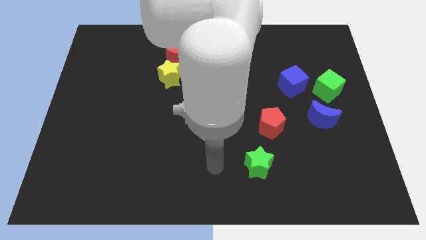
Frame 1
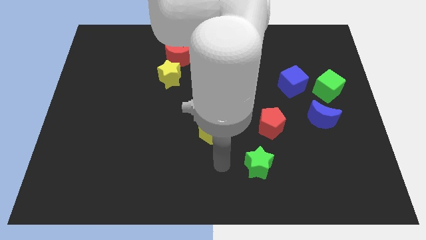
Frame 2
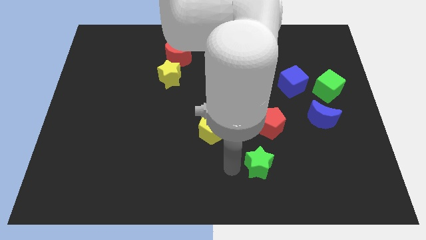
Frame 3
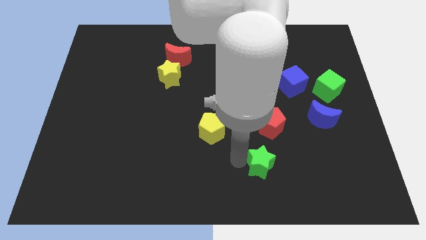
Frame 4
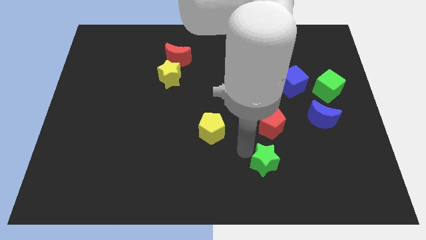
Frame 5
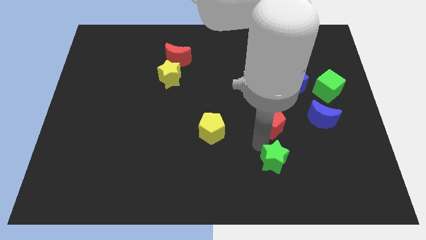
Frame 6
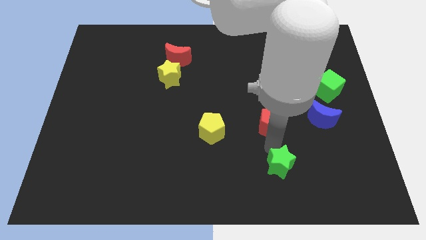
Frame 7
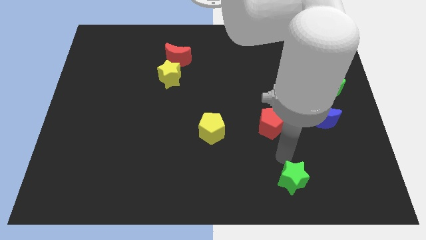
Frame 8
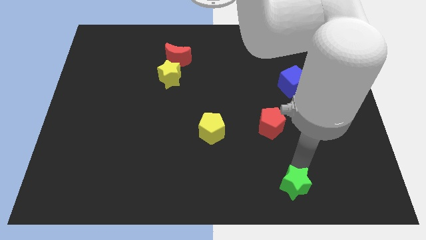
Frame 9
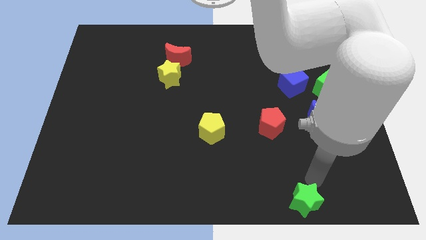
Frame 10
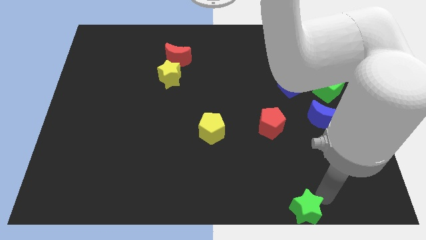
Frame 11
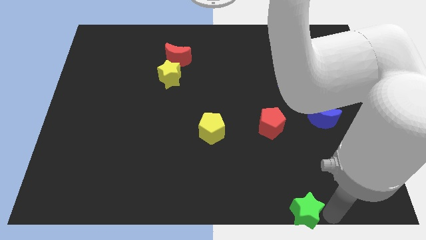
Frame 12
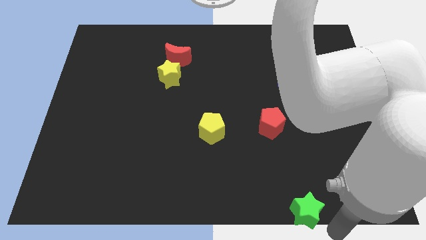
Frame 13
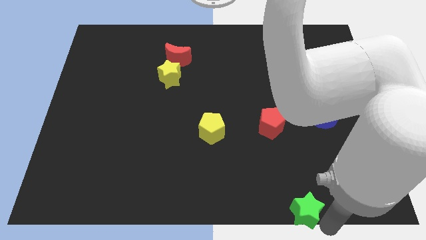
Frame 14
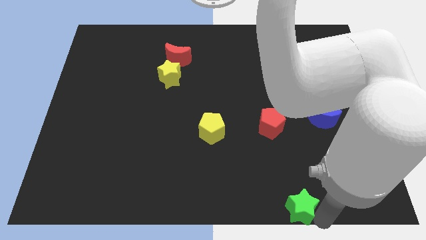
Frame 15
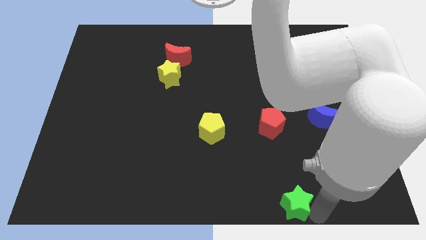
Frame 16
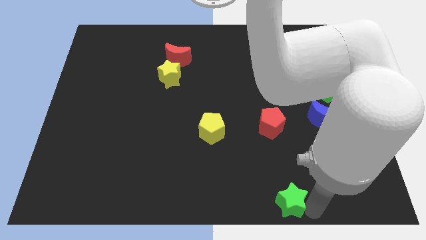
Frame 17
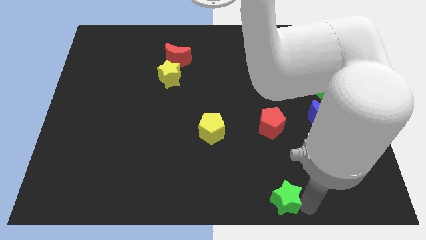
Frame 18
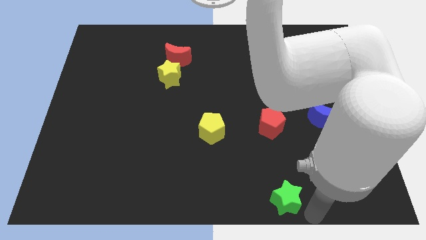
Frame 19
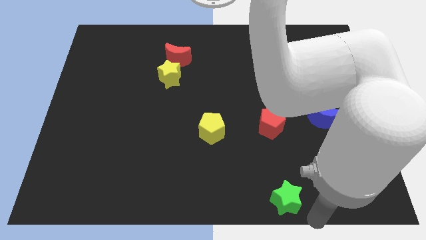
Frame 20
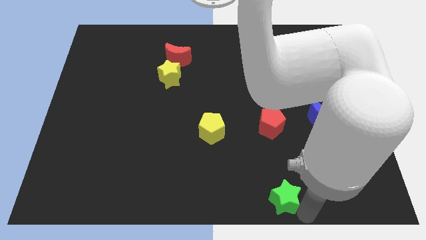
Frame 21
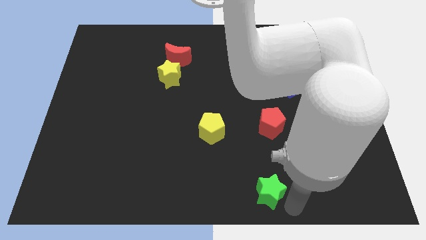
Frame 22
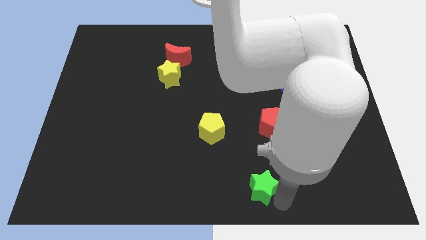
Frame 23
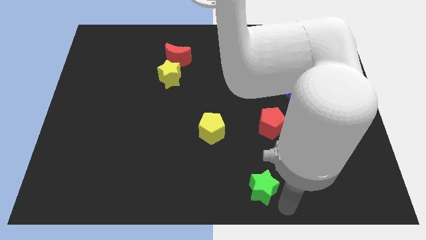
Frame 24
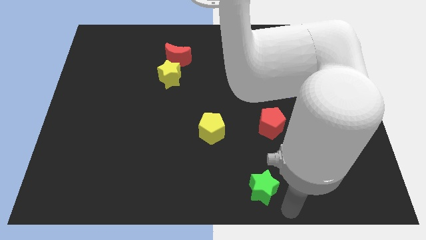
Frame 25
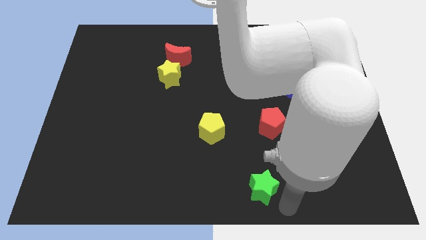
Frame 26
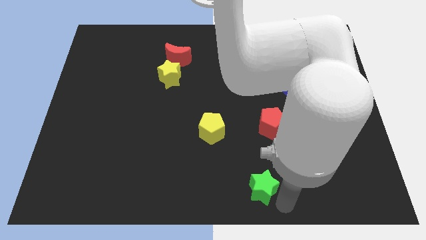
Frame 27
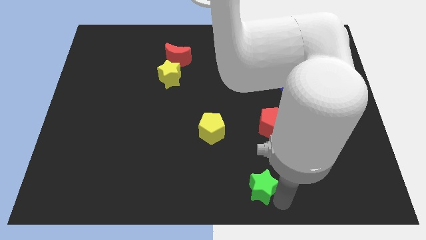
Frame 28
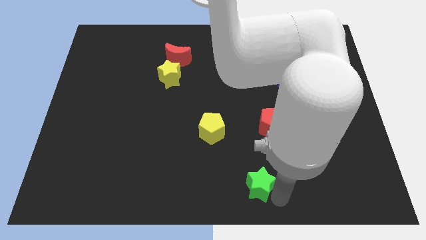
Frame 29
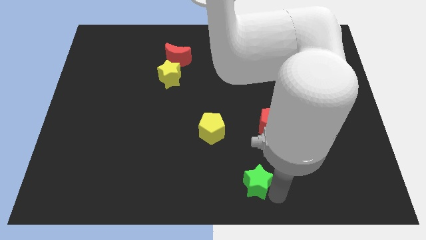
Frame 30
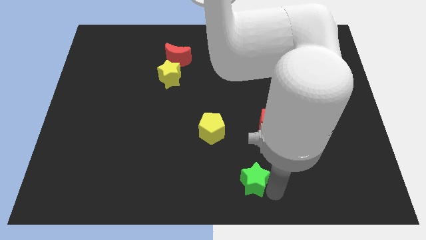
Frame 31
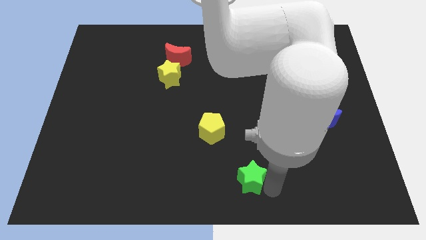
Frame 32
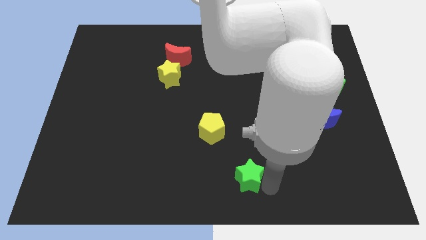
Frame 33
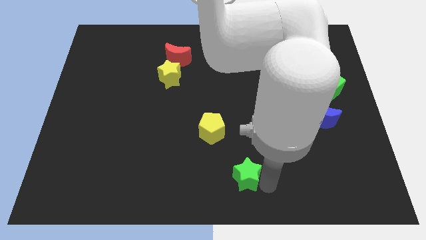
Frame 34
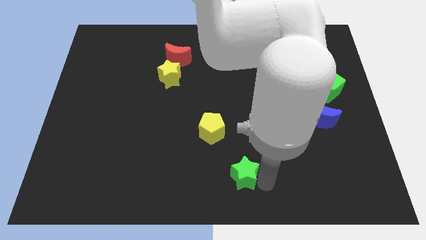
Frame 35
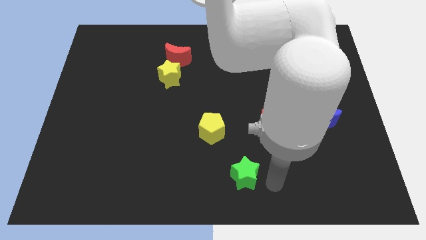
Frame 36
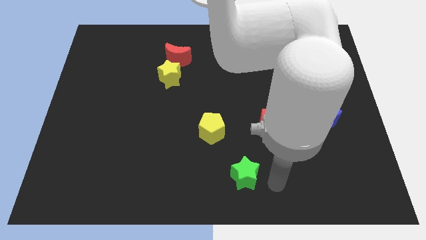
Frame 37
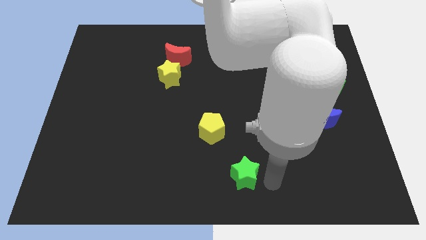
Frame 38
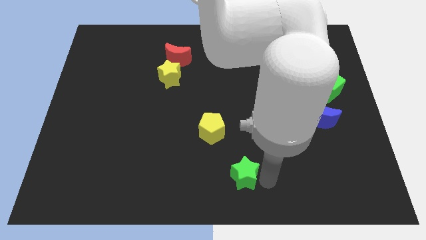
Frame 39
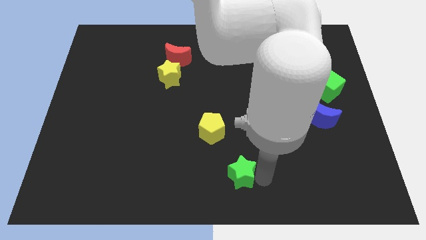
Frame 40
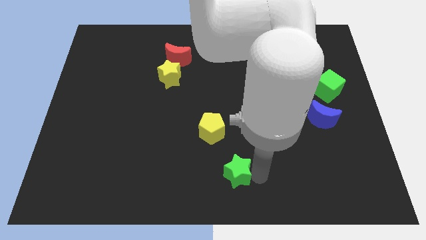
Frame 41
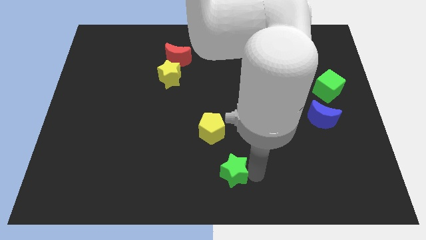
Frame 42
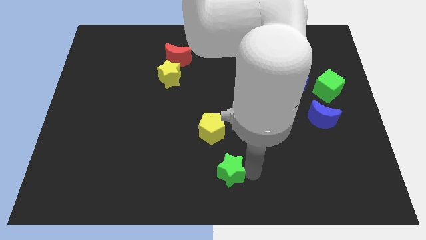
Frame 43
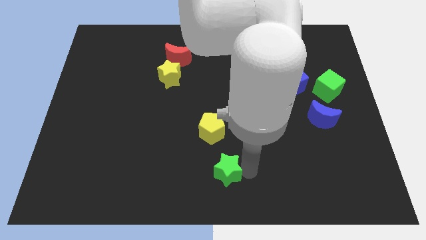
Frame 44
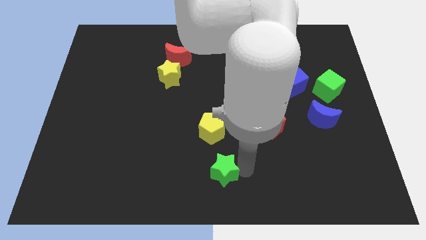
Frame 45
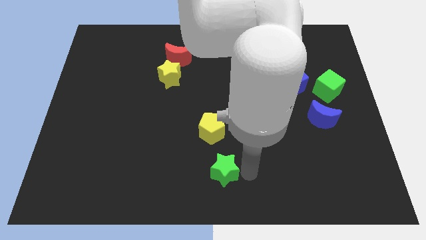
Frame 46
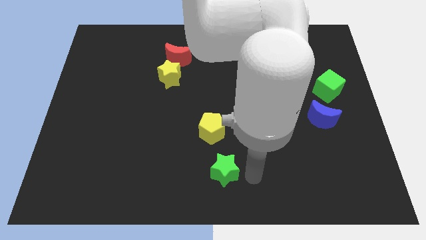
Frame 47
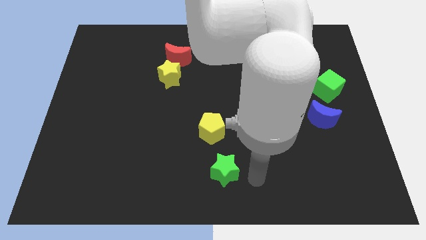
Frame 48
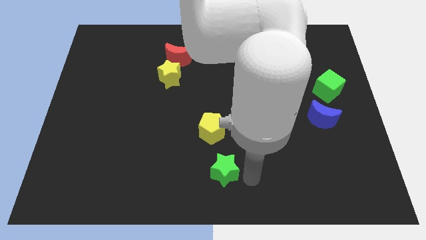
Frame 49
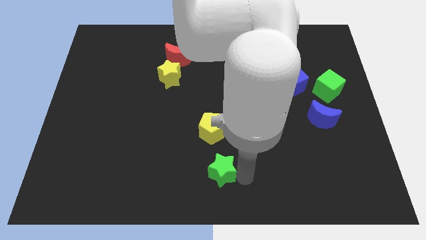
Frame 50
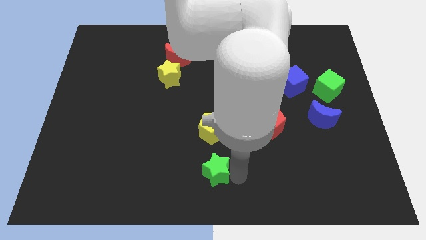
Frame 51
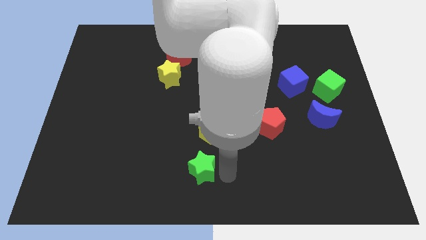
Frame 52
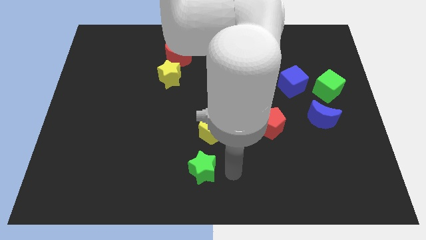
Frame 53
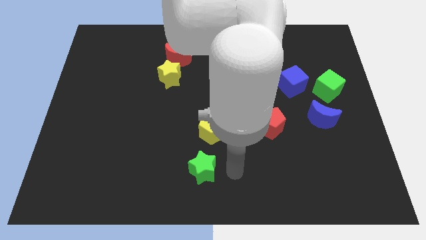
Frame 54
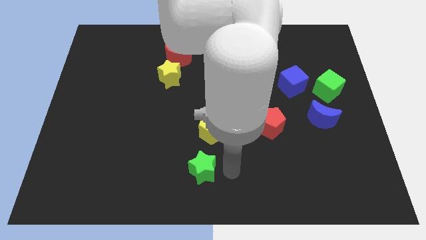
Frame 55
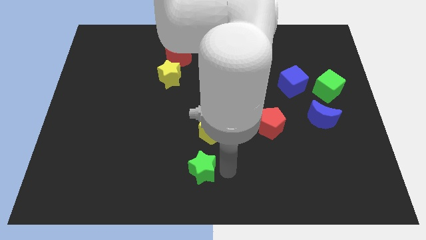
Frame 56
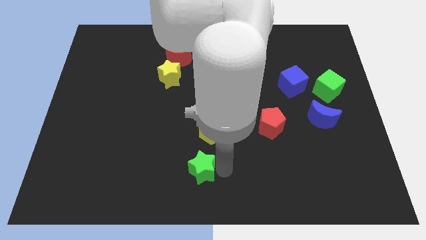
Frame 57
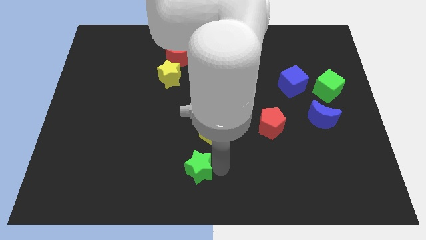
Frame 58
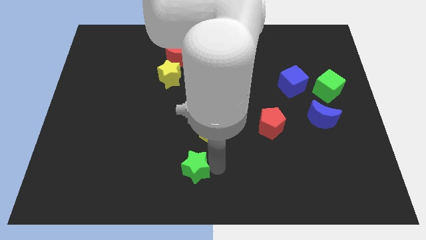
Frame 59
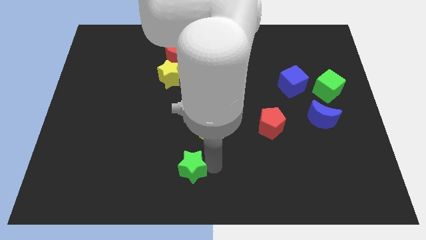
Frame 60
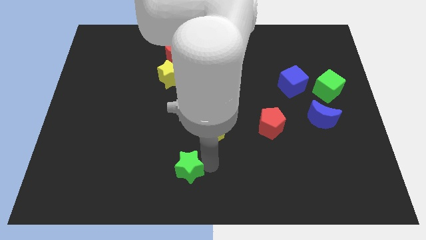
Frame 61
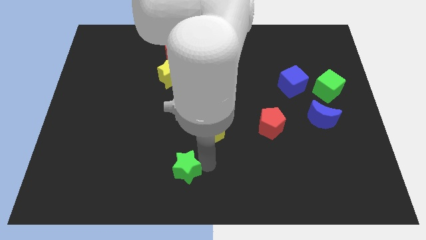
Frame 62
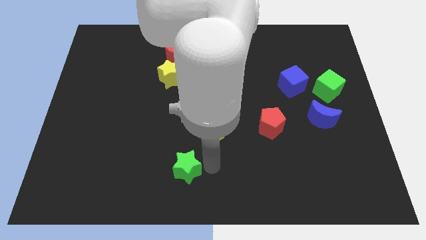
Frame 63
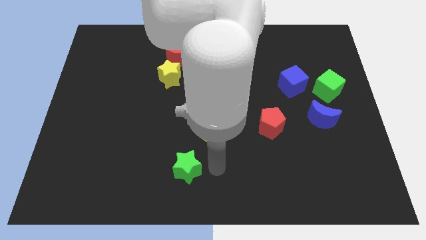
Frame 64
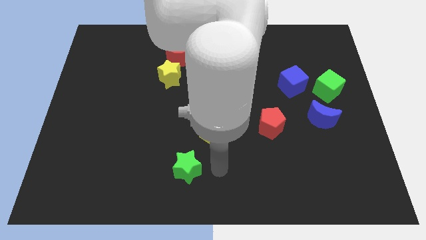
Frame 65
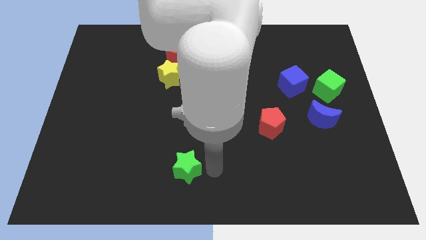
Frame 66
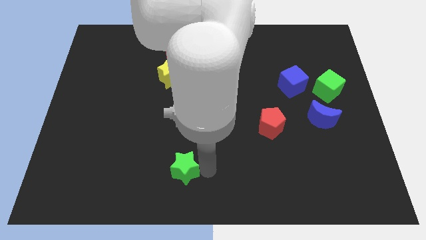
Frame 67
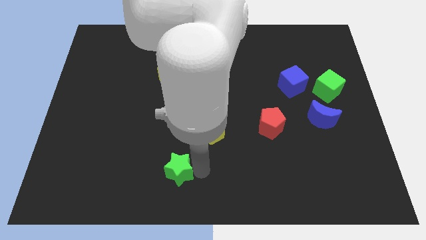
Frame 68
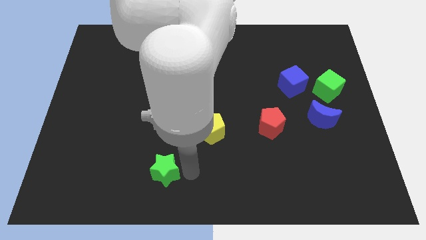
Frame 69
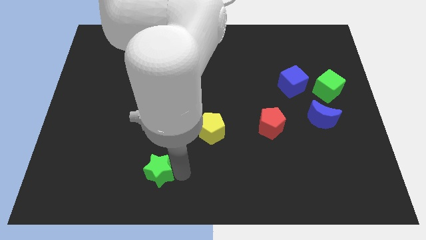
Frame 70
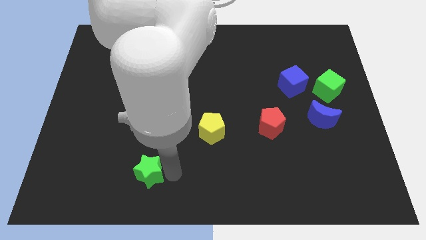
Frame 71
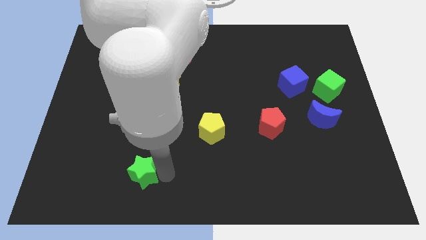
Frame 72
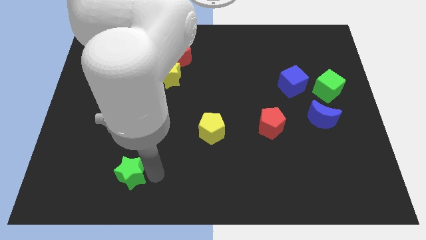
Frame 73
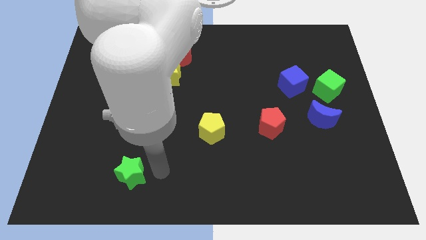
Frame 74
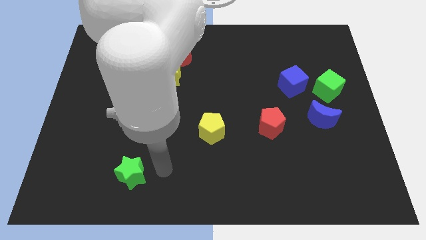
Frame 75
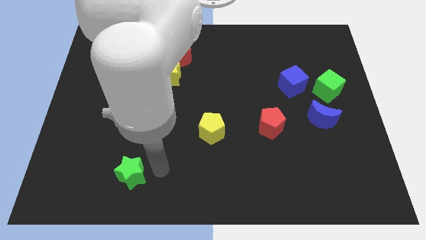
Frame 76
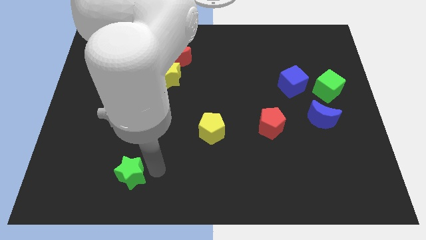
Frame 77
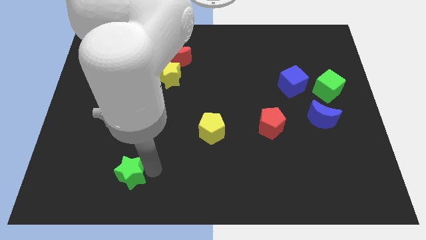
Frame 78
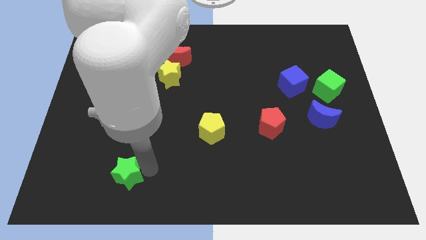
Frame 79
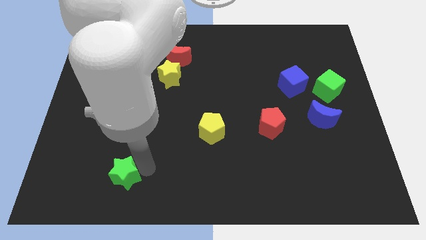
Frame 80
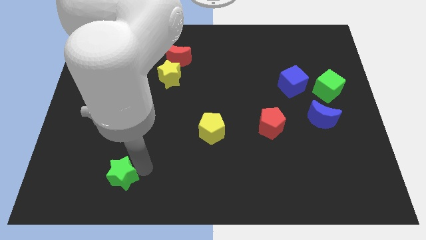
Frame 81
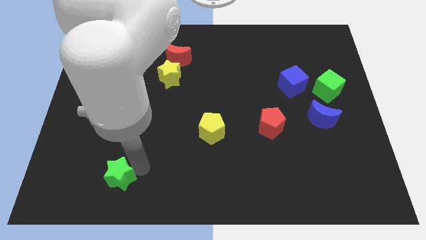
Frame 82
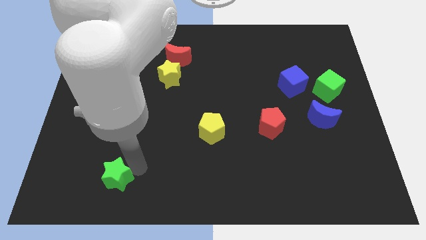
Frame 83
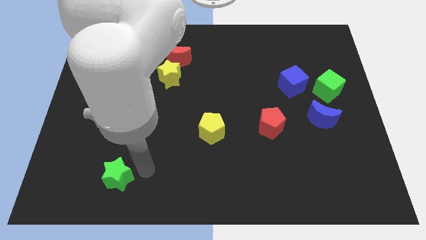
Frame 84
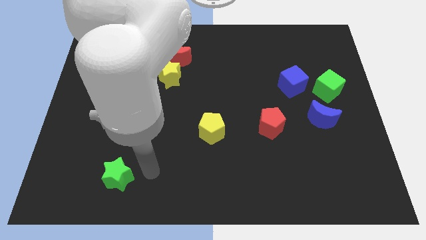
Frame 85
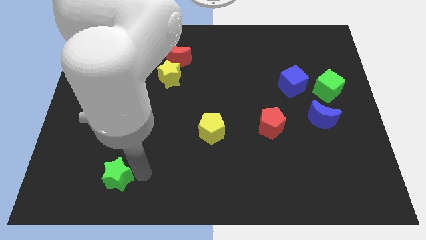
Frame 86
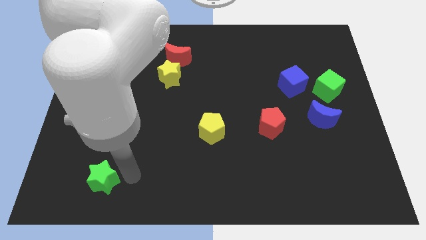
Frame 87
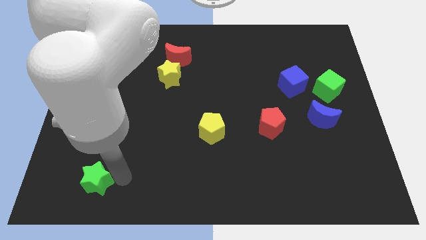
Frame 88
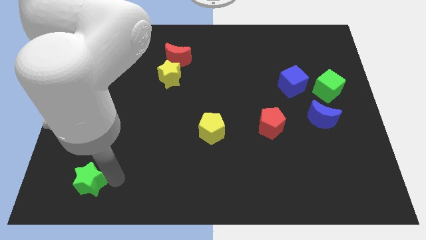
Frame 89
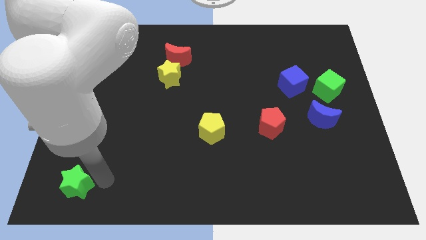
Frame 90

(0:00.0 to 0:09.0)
put the green star to the bottom left of the board
